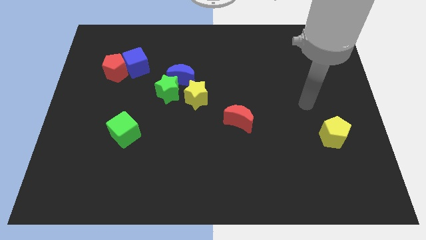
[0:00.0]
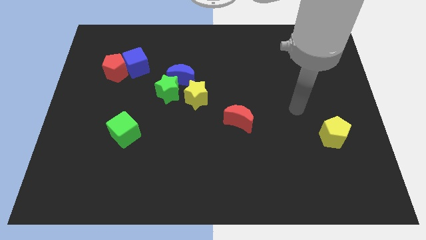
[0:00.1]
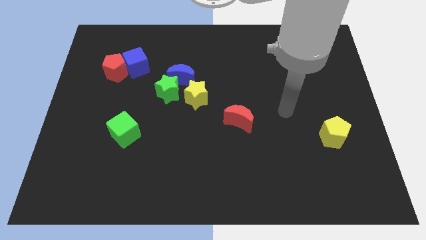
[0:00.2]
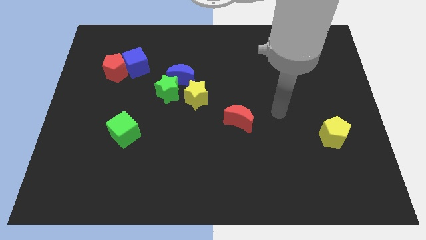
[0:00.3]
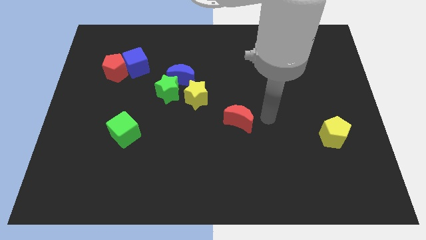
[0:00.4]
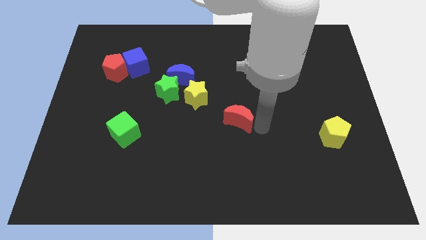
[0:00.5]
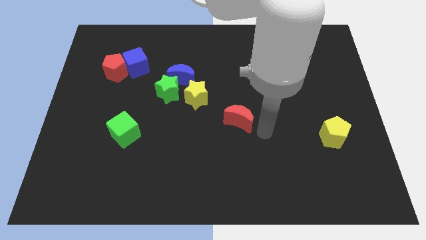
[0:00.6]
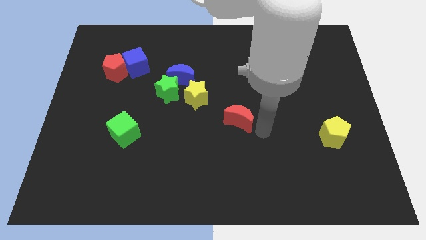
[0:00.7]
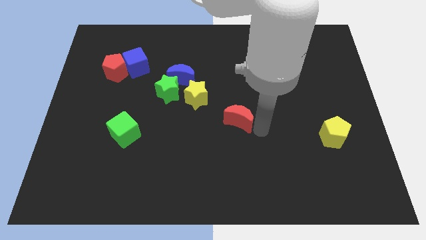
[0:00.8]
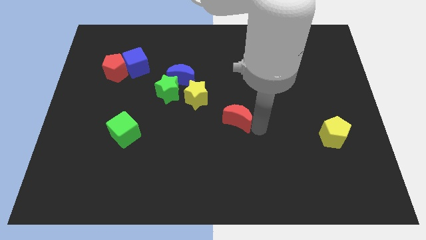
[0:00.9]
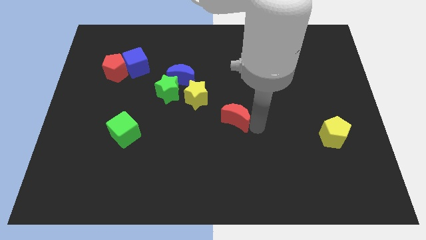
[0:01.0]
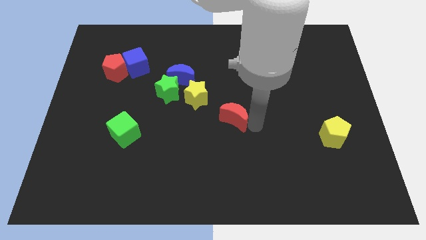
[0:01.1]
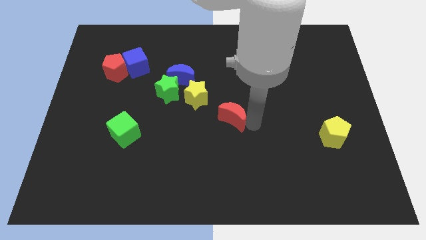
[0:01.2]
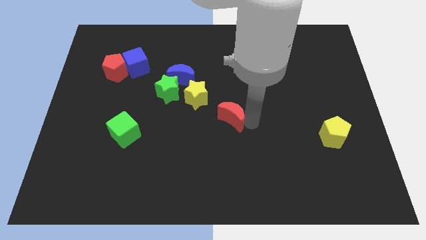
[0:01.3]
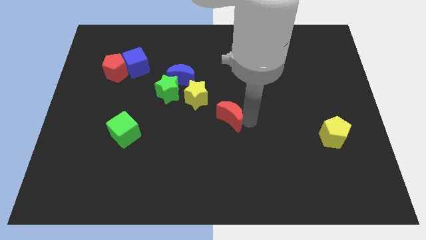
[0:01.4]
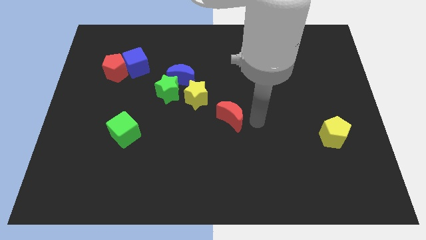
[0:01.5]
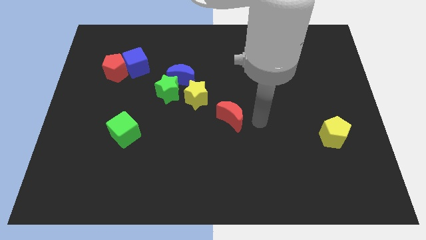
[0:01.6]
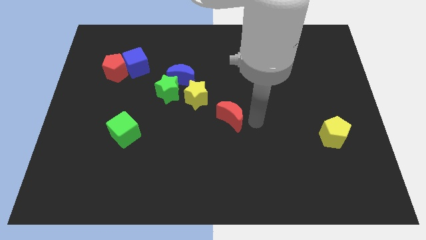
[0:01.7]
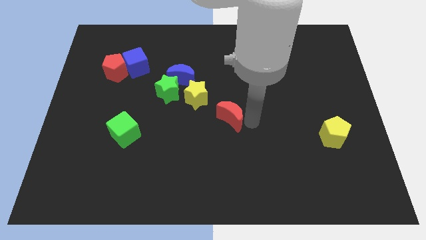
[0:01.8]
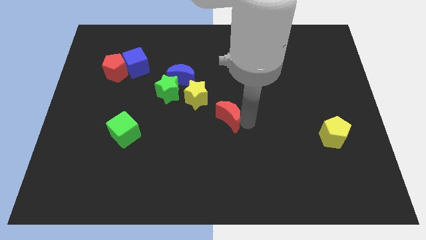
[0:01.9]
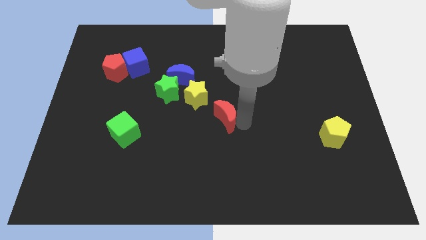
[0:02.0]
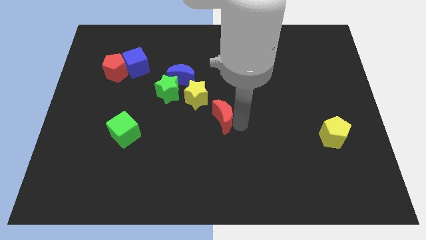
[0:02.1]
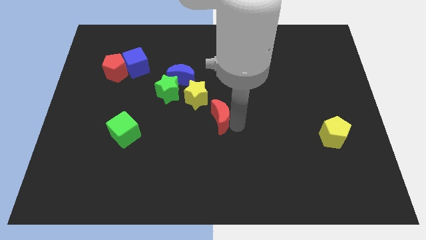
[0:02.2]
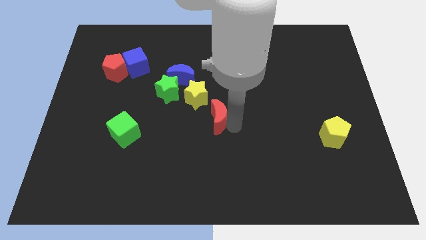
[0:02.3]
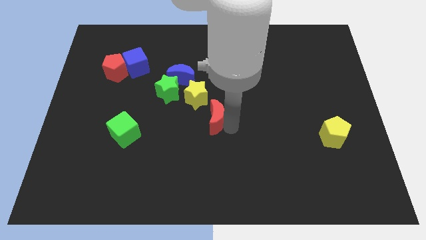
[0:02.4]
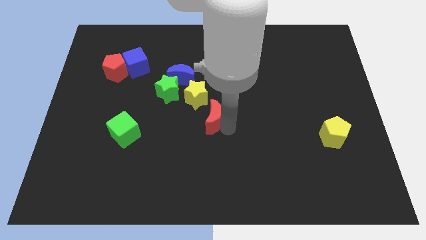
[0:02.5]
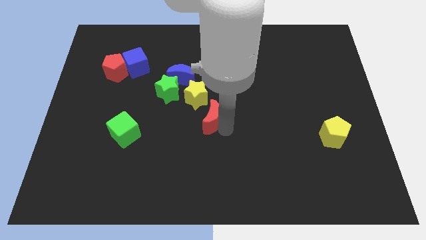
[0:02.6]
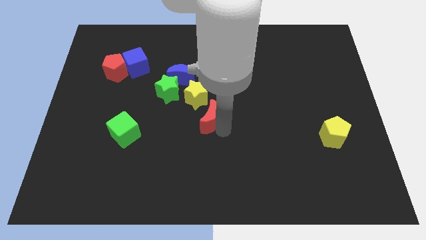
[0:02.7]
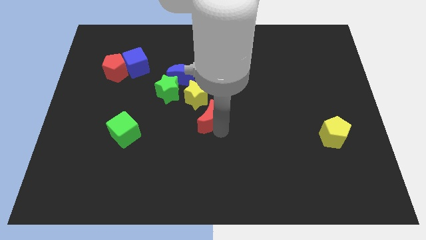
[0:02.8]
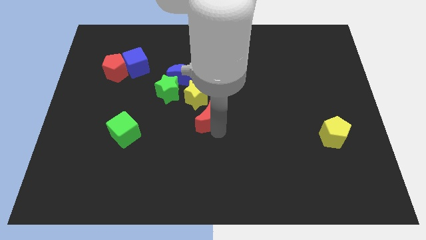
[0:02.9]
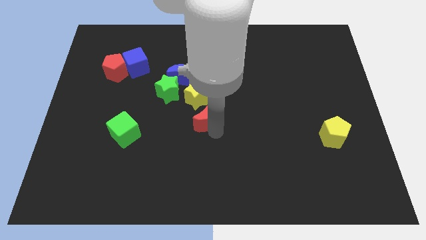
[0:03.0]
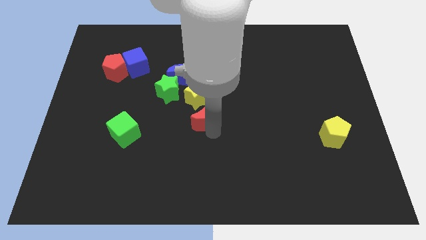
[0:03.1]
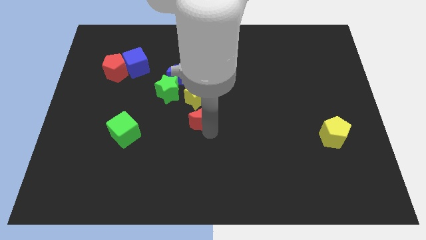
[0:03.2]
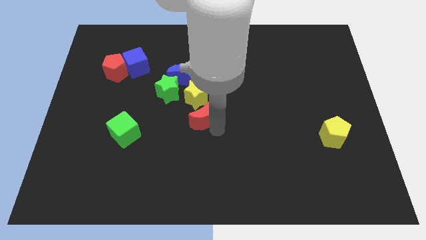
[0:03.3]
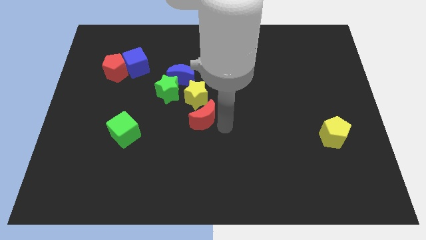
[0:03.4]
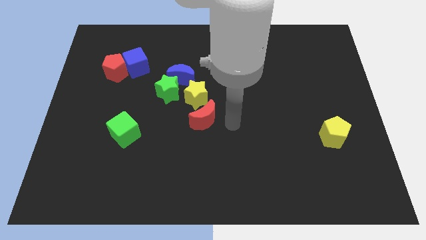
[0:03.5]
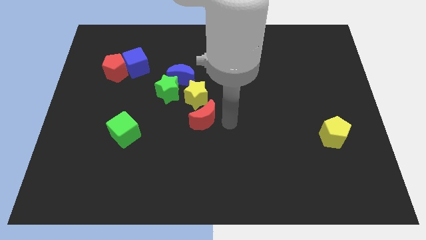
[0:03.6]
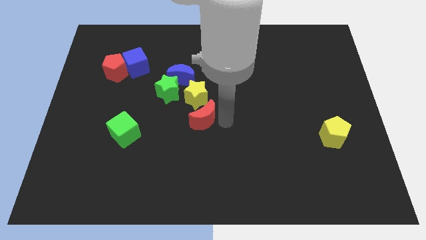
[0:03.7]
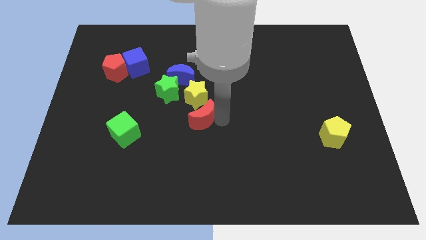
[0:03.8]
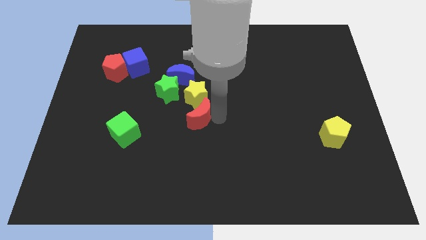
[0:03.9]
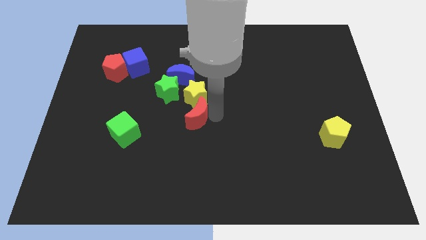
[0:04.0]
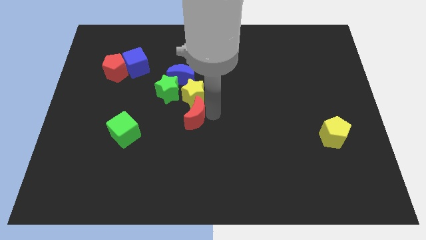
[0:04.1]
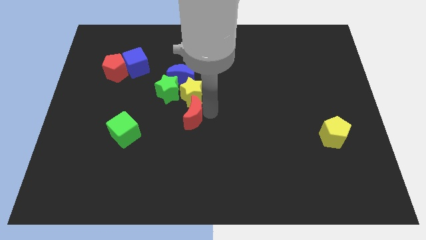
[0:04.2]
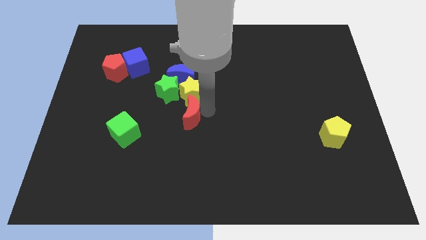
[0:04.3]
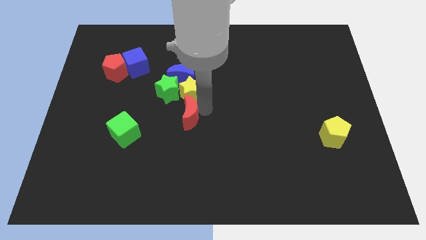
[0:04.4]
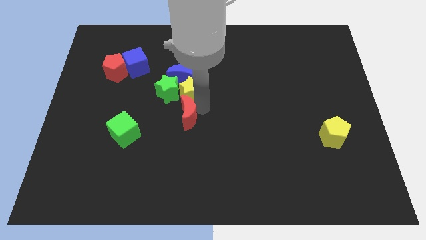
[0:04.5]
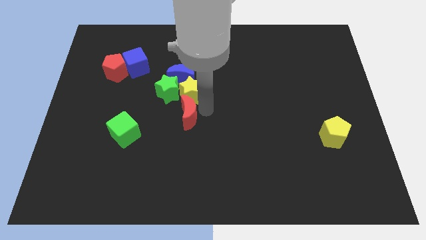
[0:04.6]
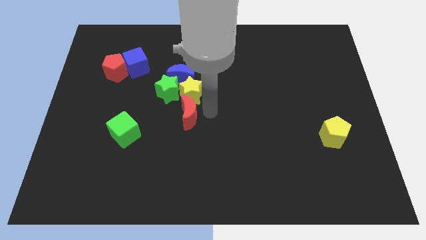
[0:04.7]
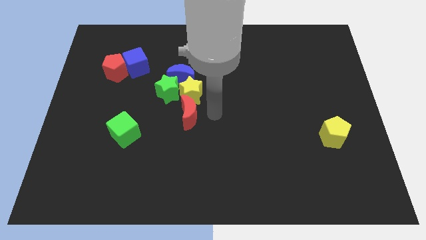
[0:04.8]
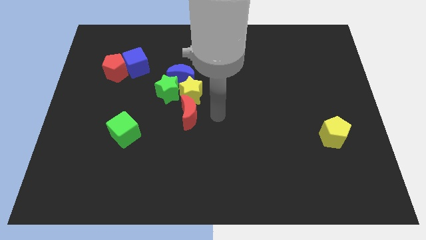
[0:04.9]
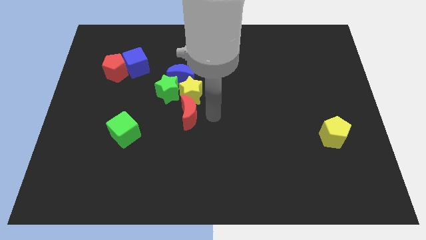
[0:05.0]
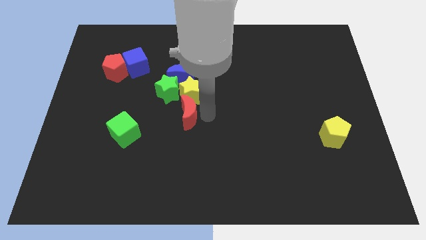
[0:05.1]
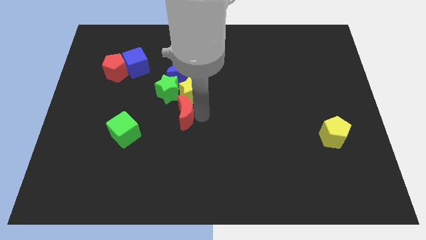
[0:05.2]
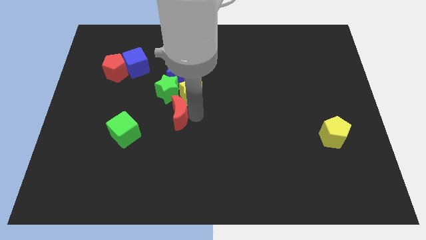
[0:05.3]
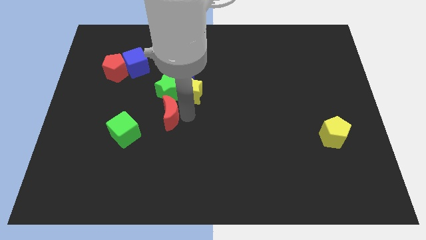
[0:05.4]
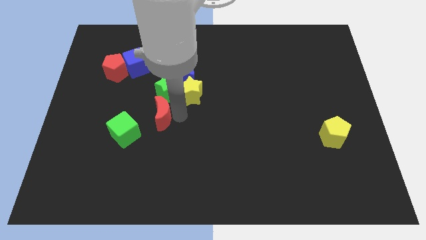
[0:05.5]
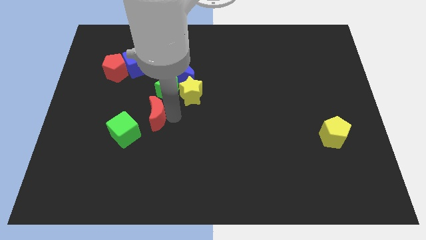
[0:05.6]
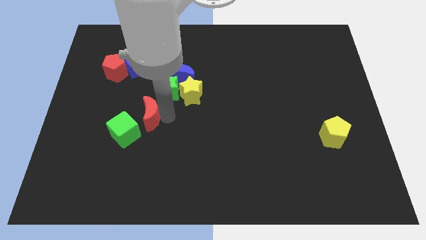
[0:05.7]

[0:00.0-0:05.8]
slide the red moon left

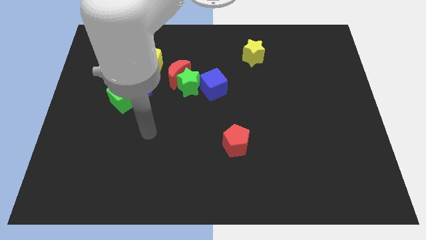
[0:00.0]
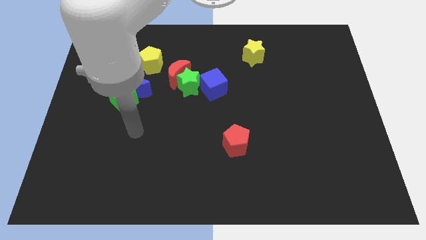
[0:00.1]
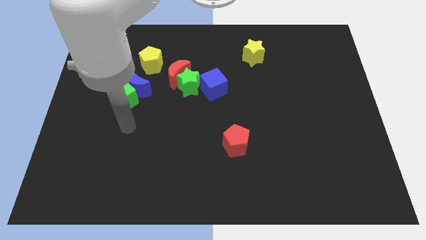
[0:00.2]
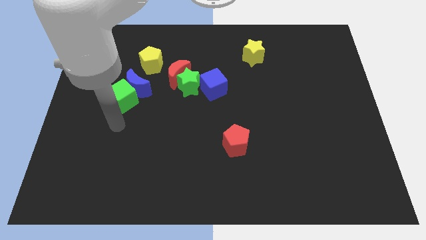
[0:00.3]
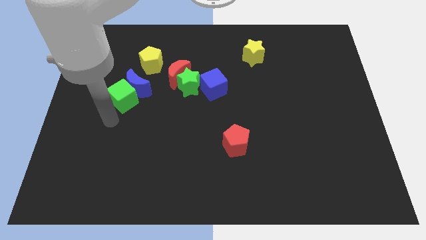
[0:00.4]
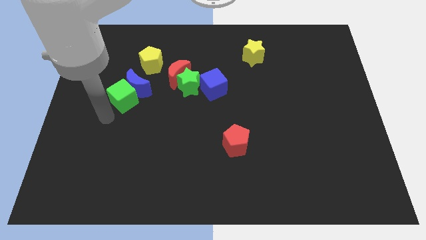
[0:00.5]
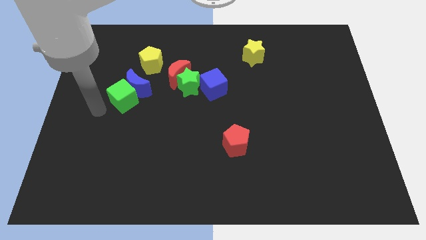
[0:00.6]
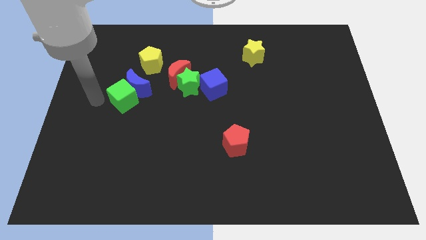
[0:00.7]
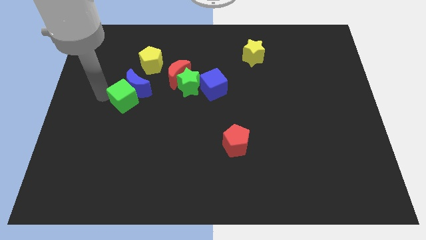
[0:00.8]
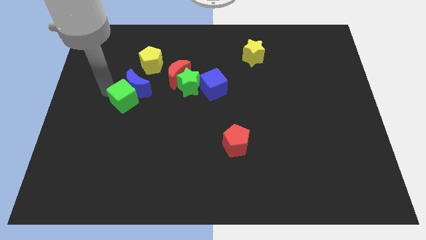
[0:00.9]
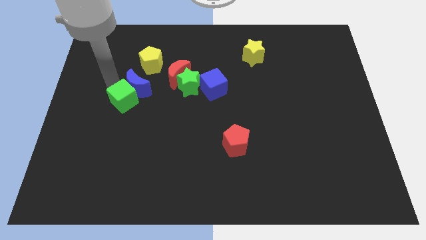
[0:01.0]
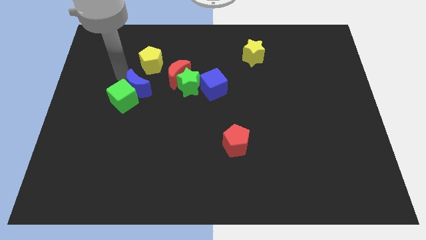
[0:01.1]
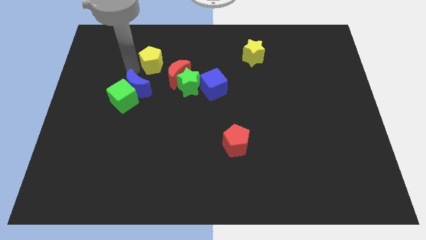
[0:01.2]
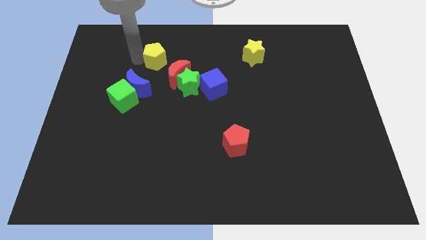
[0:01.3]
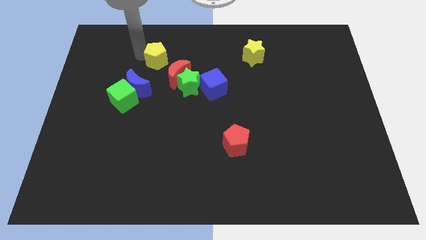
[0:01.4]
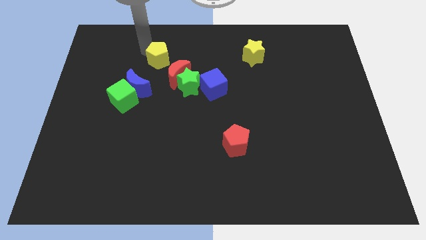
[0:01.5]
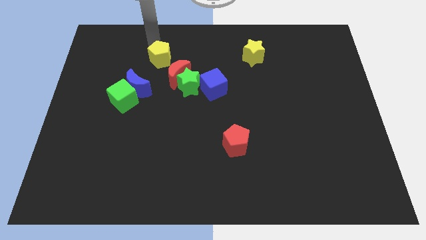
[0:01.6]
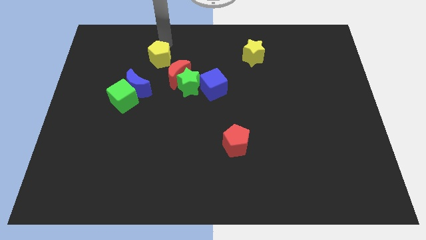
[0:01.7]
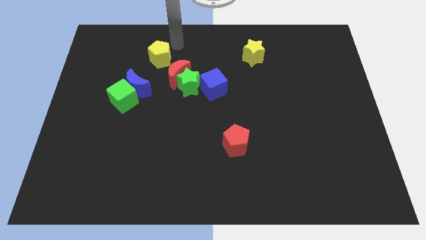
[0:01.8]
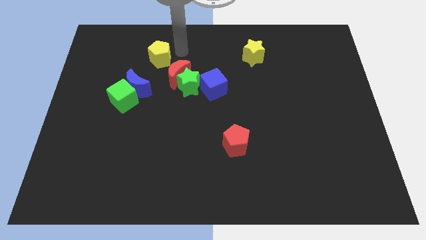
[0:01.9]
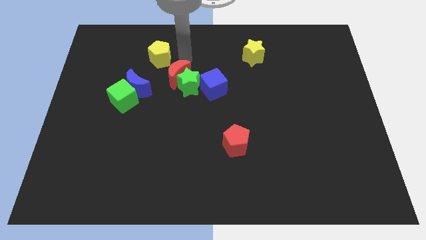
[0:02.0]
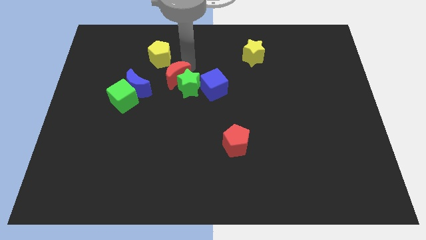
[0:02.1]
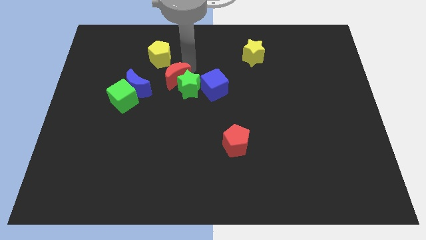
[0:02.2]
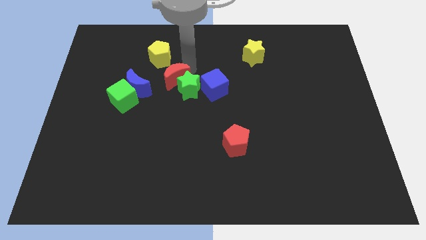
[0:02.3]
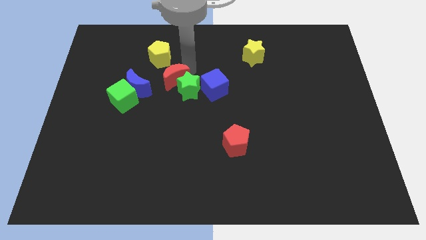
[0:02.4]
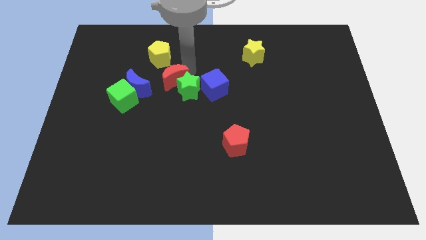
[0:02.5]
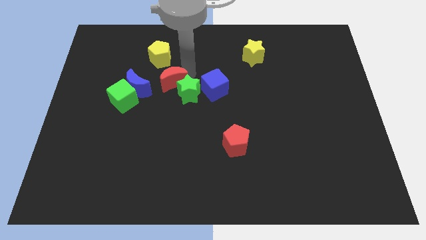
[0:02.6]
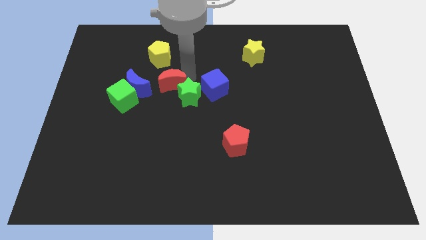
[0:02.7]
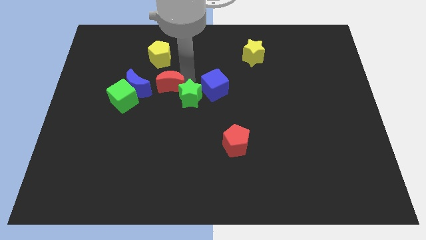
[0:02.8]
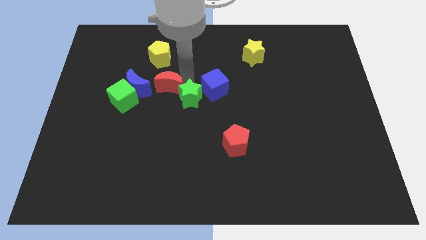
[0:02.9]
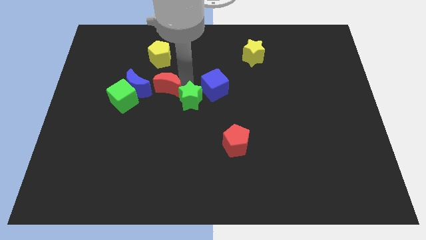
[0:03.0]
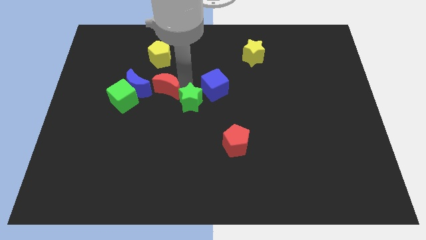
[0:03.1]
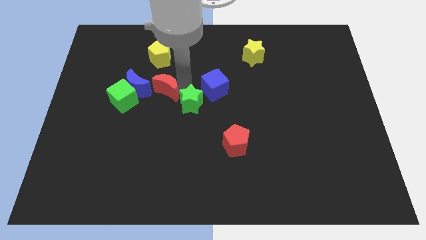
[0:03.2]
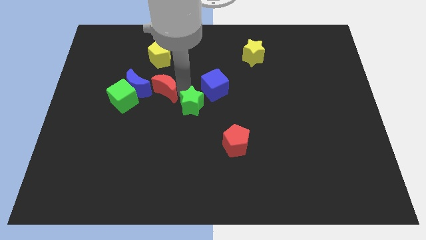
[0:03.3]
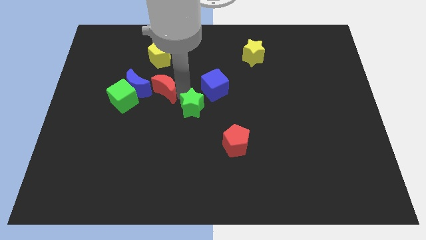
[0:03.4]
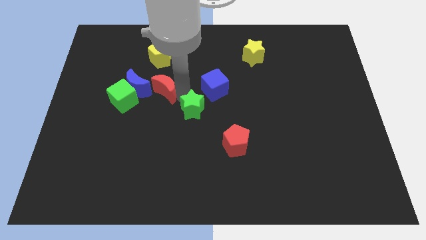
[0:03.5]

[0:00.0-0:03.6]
slide the green star a little bit down
